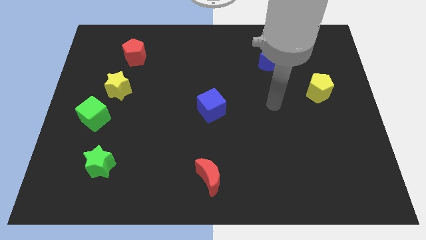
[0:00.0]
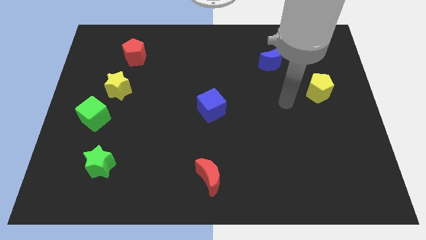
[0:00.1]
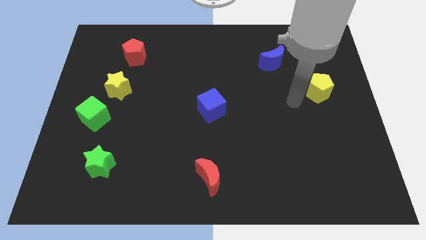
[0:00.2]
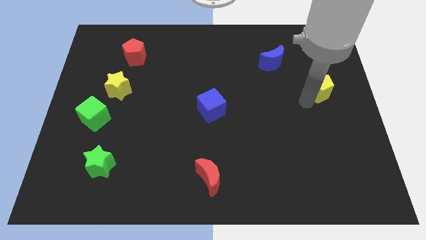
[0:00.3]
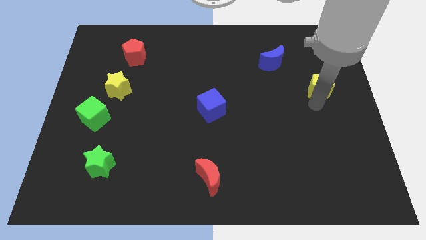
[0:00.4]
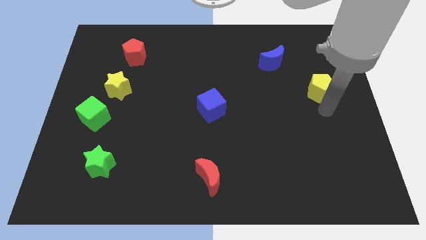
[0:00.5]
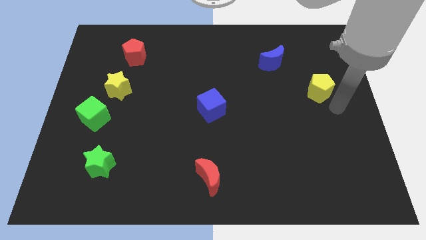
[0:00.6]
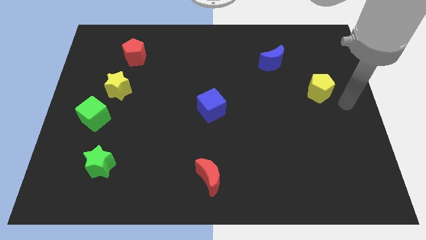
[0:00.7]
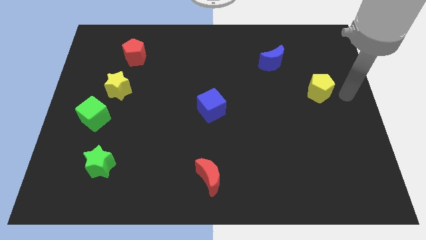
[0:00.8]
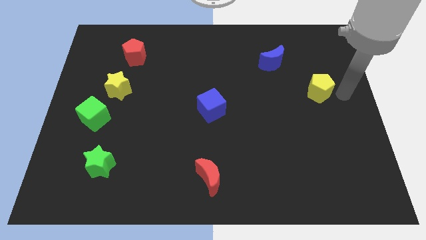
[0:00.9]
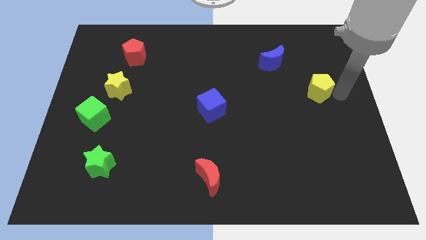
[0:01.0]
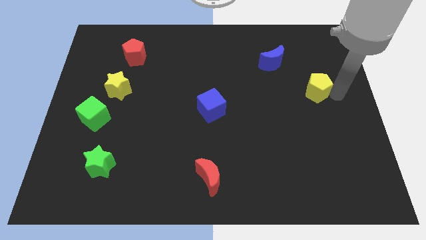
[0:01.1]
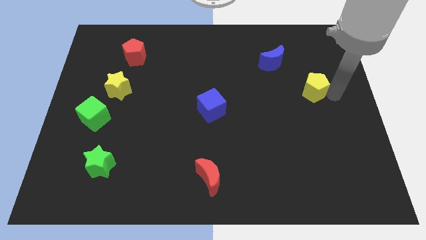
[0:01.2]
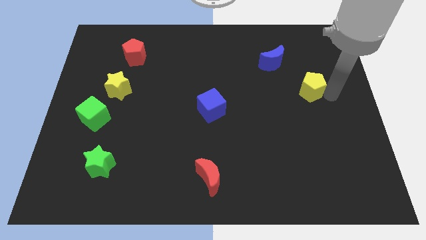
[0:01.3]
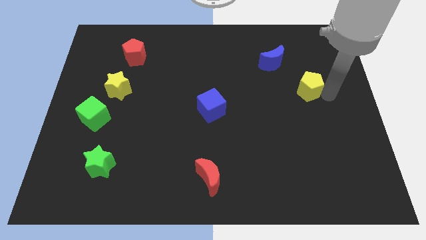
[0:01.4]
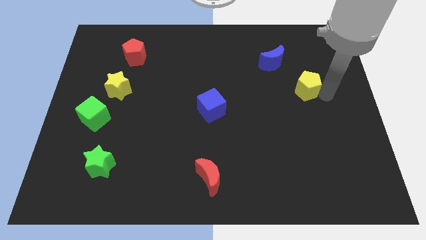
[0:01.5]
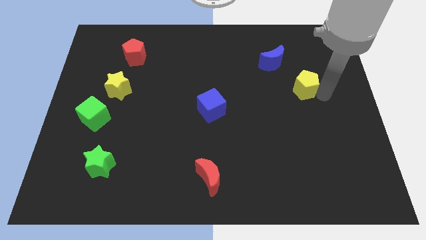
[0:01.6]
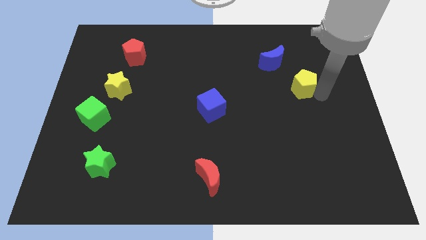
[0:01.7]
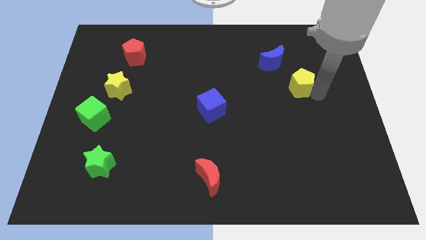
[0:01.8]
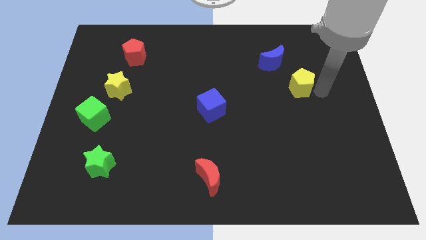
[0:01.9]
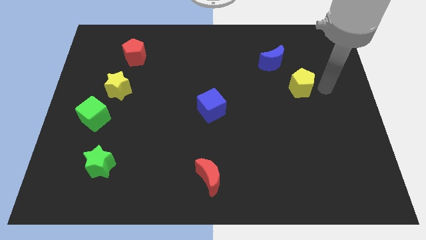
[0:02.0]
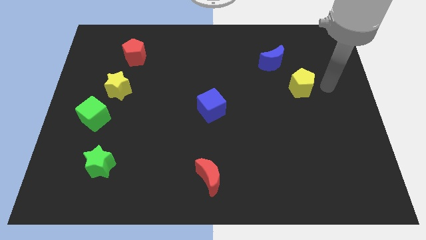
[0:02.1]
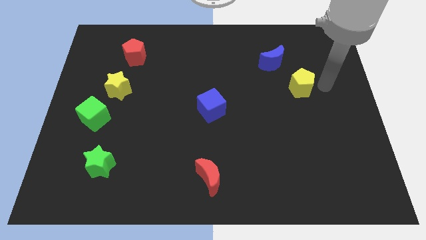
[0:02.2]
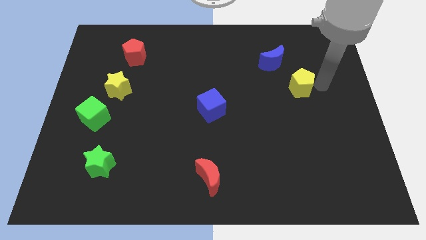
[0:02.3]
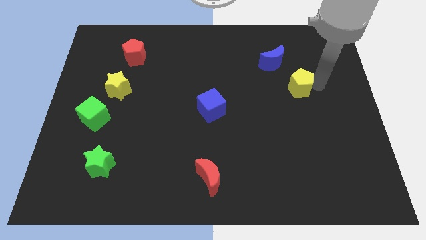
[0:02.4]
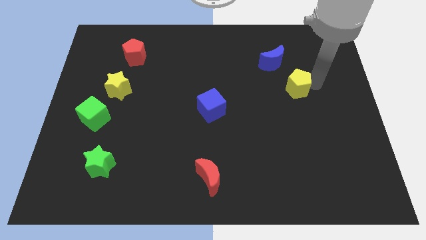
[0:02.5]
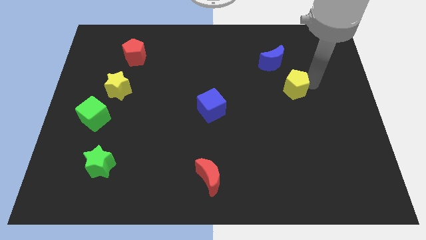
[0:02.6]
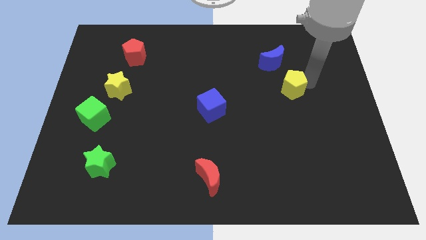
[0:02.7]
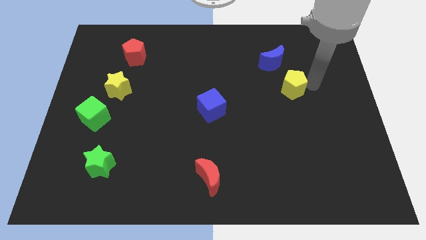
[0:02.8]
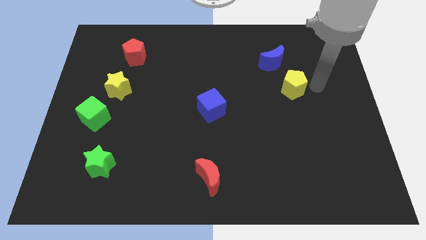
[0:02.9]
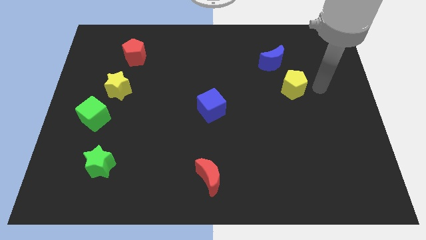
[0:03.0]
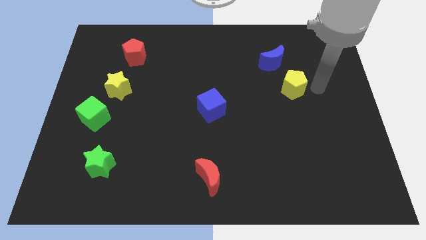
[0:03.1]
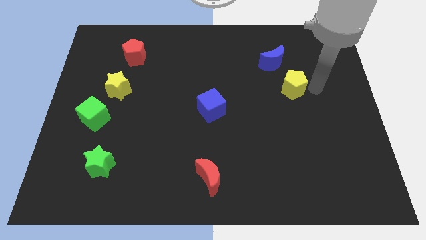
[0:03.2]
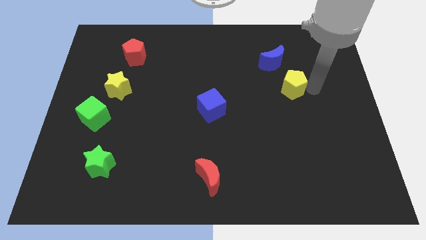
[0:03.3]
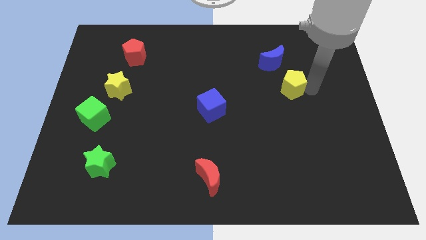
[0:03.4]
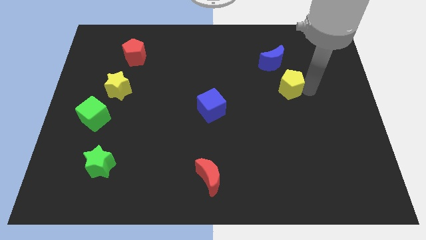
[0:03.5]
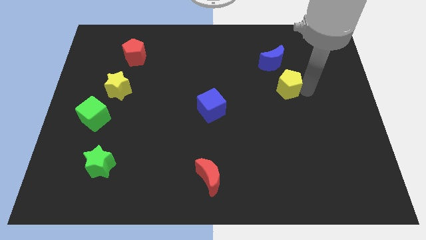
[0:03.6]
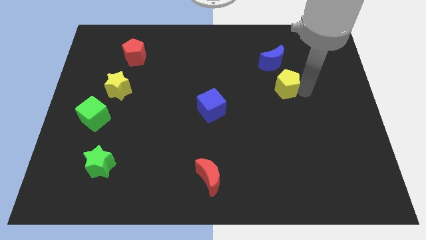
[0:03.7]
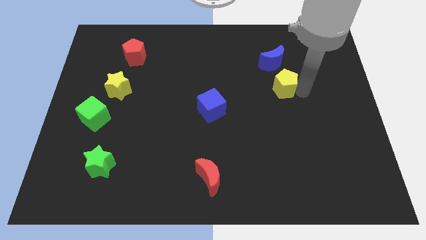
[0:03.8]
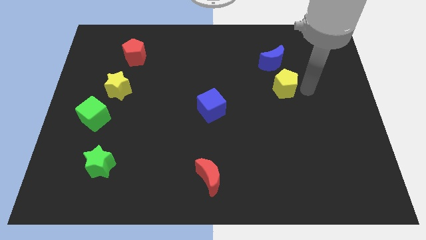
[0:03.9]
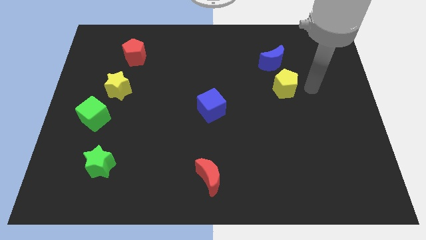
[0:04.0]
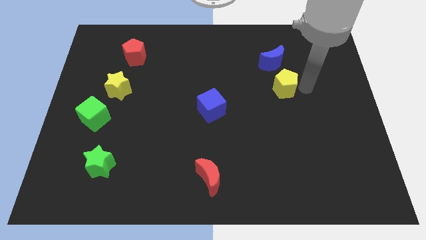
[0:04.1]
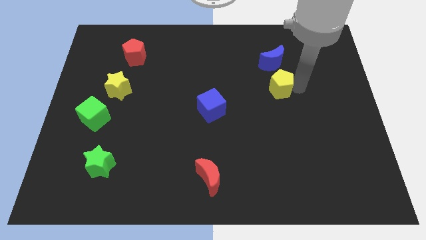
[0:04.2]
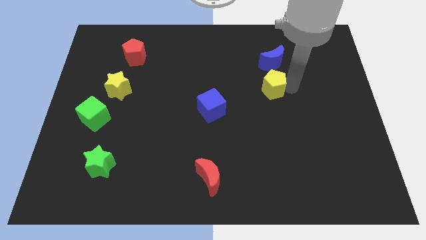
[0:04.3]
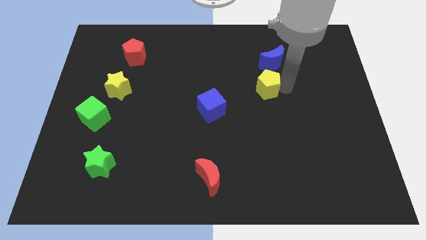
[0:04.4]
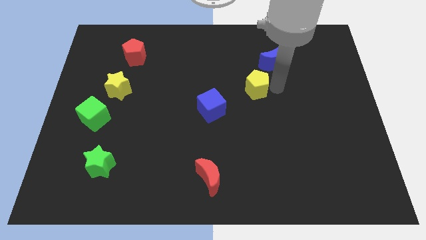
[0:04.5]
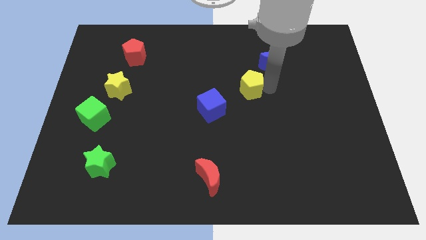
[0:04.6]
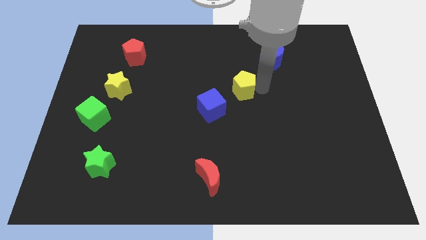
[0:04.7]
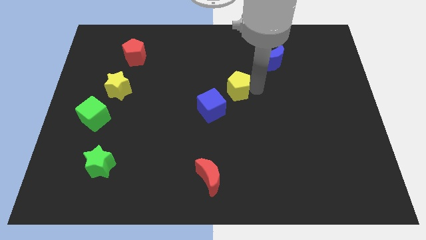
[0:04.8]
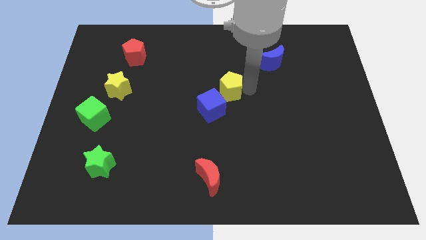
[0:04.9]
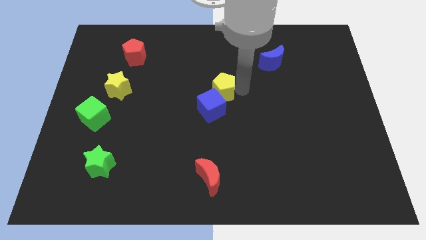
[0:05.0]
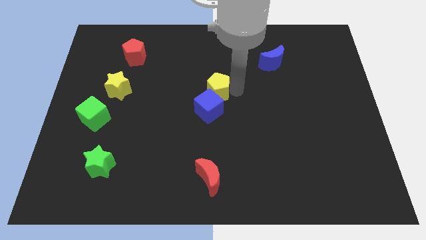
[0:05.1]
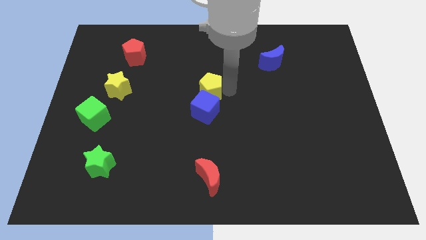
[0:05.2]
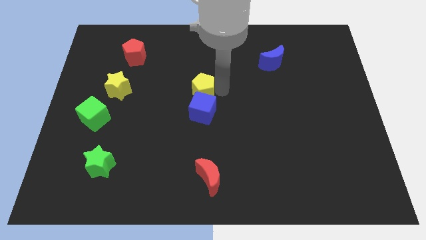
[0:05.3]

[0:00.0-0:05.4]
put the yellow pentagon diagonally up and to the left of the blue cube

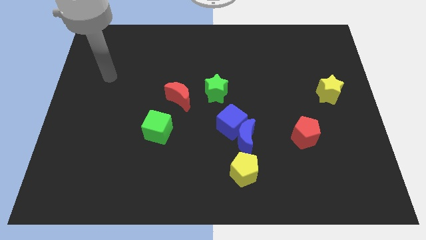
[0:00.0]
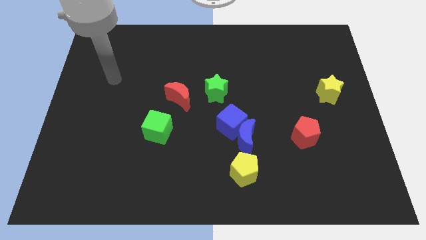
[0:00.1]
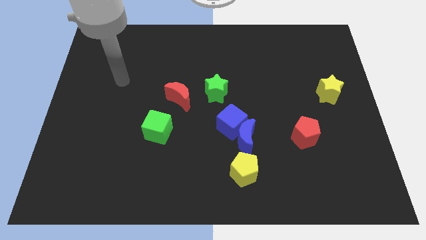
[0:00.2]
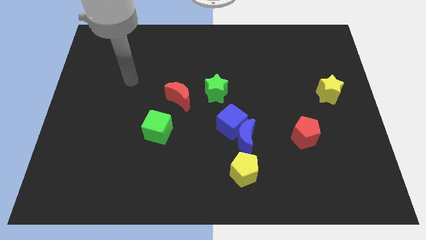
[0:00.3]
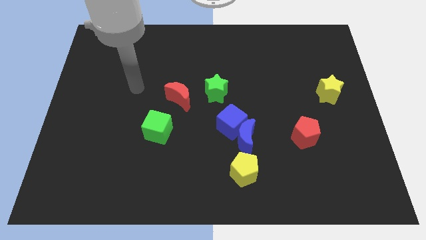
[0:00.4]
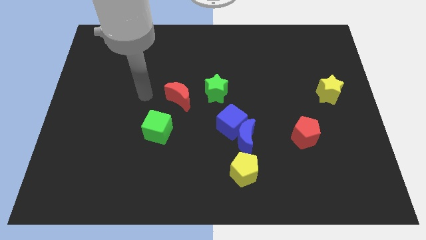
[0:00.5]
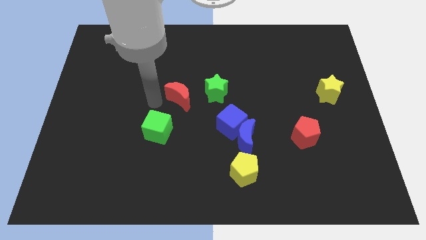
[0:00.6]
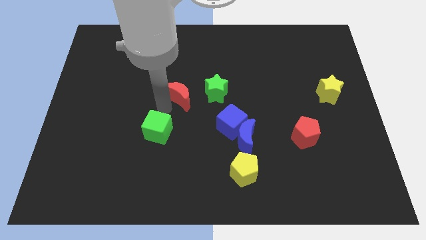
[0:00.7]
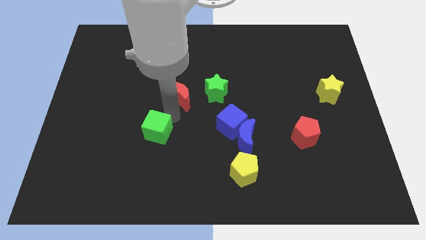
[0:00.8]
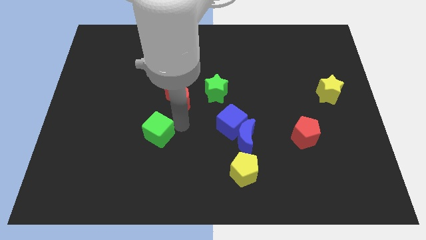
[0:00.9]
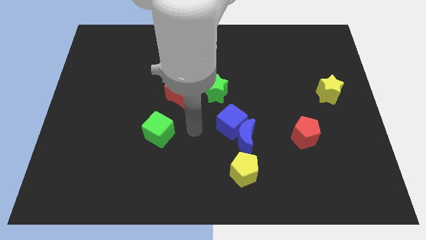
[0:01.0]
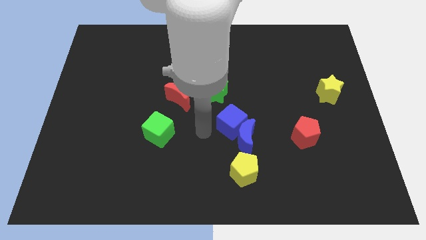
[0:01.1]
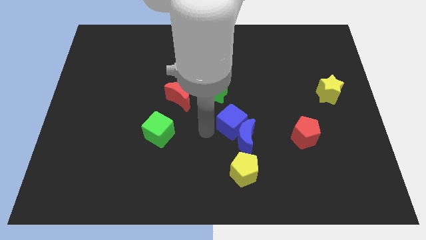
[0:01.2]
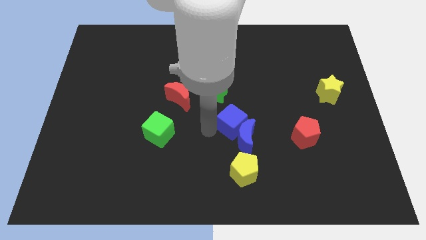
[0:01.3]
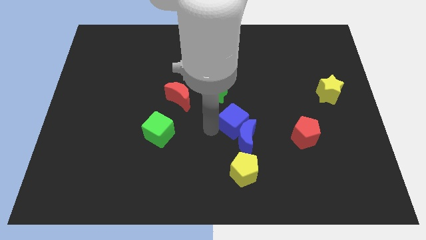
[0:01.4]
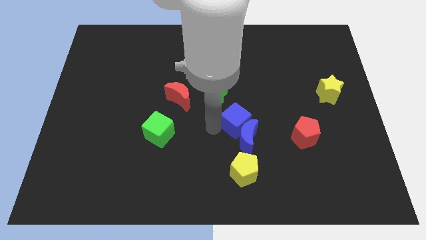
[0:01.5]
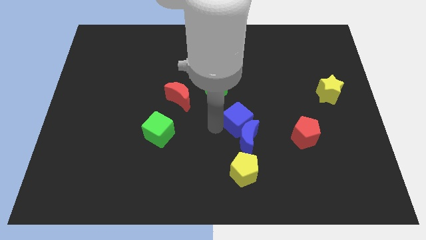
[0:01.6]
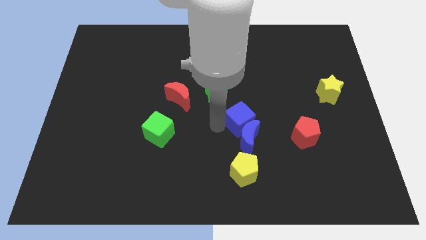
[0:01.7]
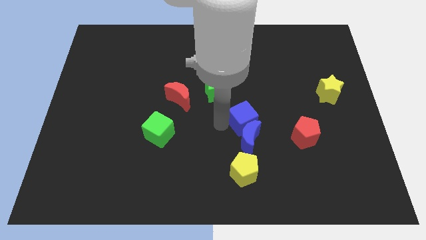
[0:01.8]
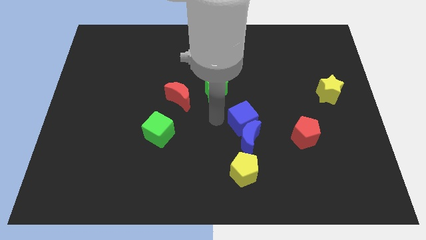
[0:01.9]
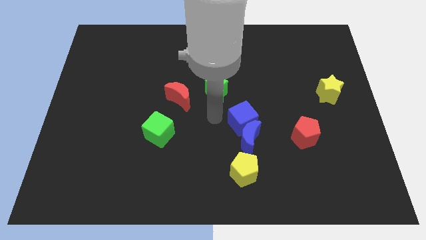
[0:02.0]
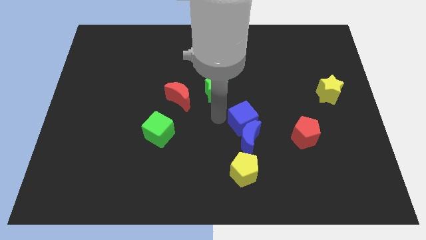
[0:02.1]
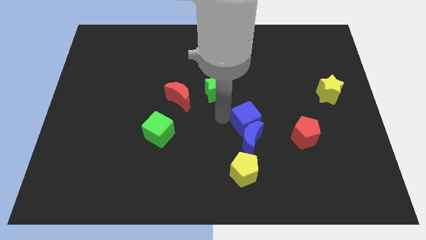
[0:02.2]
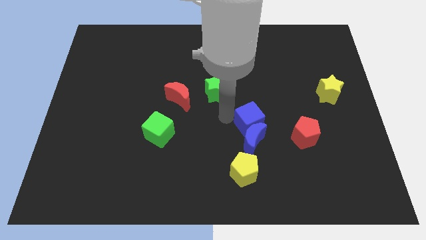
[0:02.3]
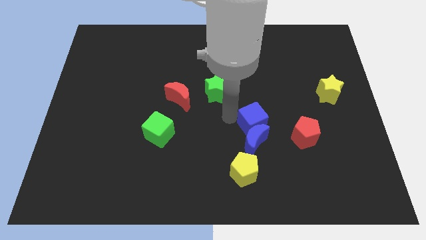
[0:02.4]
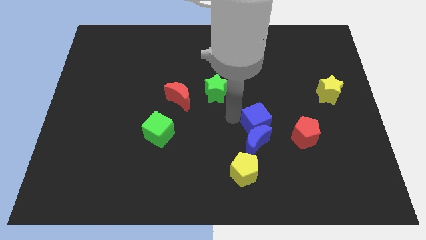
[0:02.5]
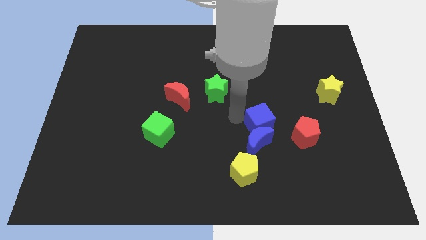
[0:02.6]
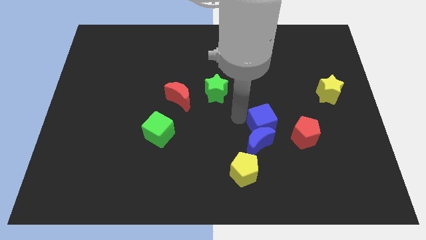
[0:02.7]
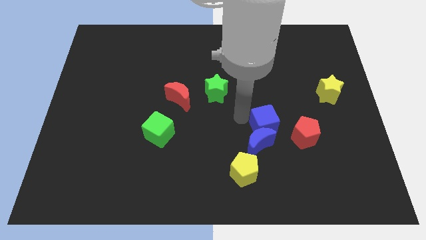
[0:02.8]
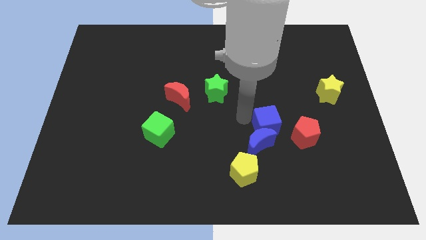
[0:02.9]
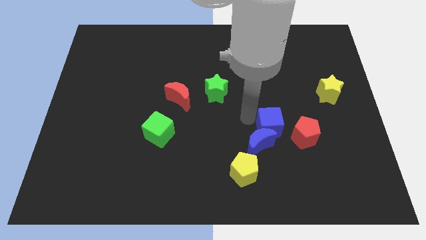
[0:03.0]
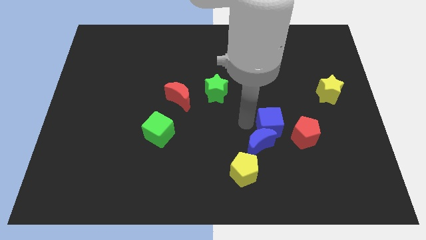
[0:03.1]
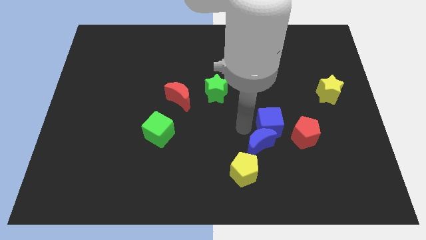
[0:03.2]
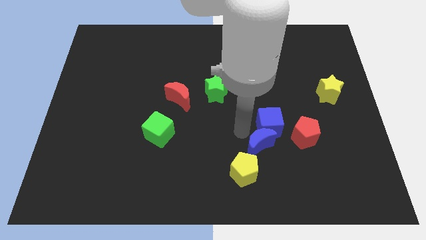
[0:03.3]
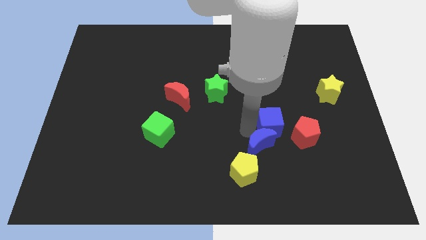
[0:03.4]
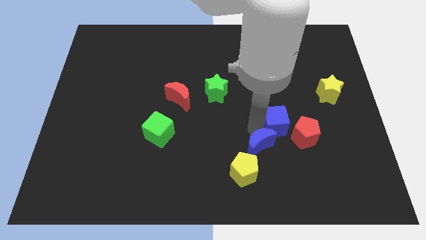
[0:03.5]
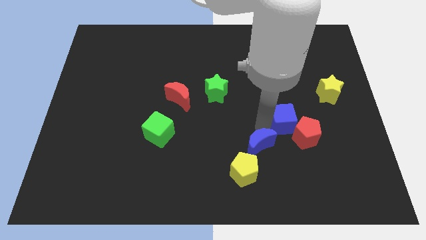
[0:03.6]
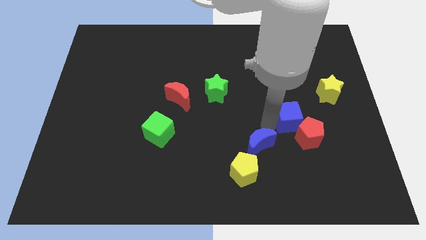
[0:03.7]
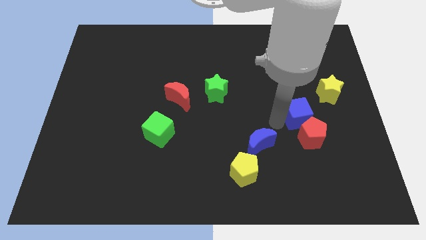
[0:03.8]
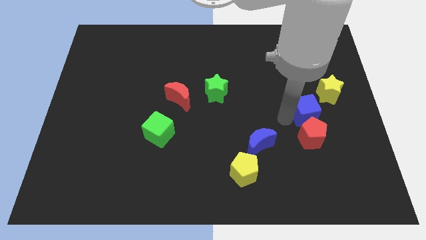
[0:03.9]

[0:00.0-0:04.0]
put the blue cube diagonally up and to the right of the red pentagon
